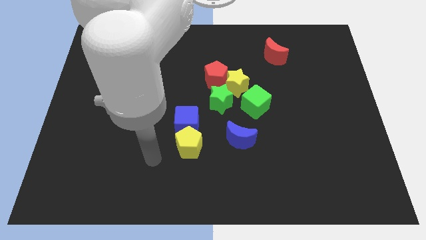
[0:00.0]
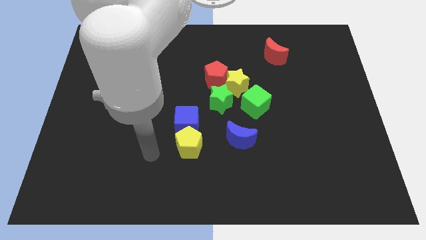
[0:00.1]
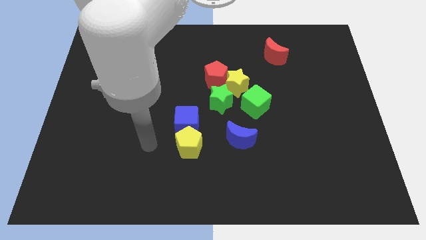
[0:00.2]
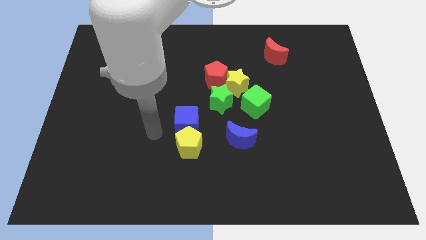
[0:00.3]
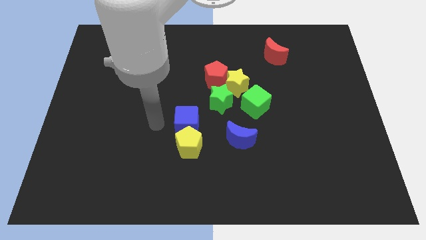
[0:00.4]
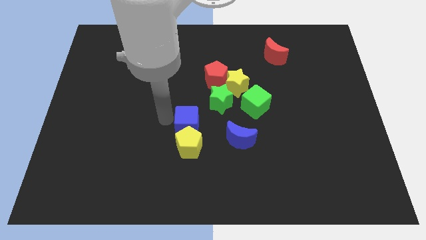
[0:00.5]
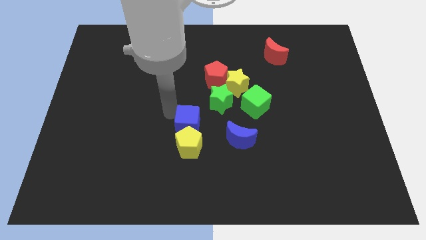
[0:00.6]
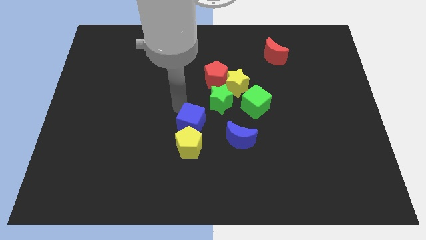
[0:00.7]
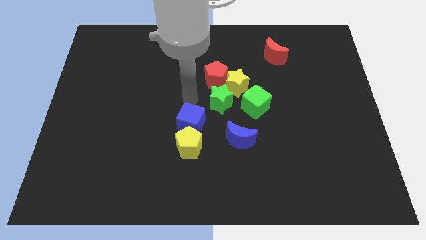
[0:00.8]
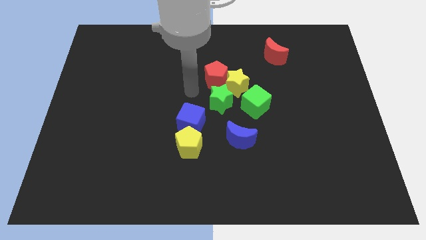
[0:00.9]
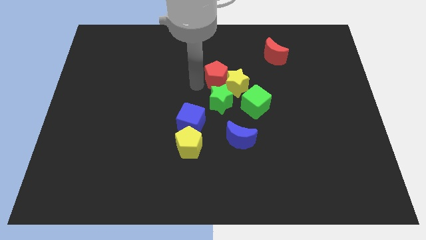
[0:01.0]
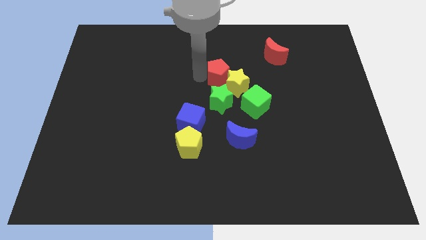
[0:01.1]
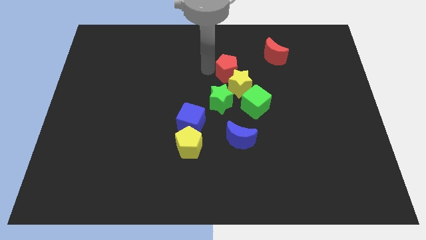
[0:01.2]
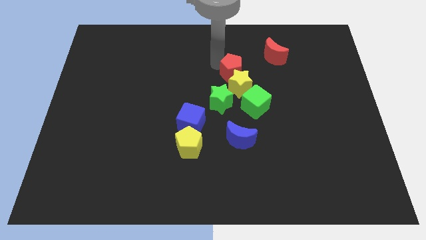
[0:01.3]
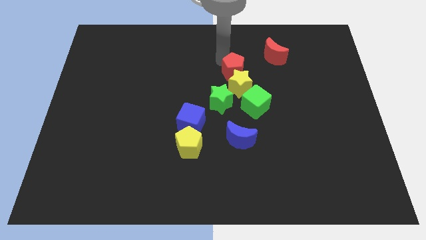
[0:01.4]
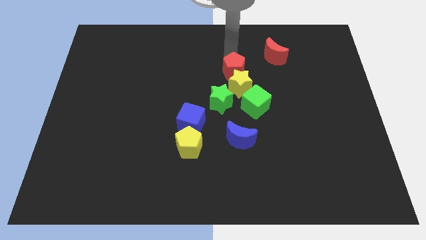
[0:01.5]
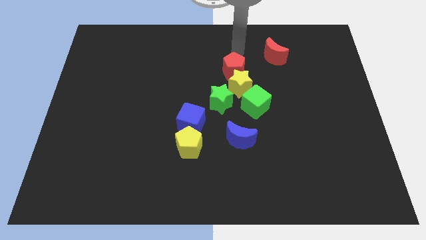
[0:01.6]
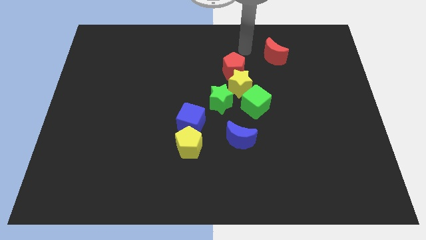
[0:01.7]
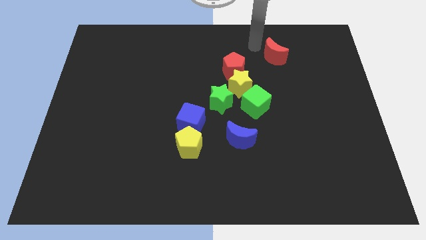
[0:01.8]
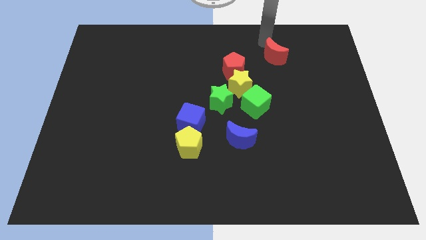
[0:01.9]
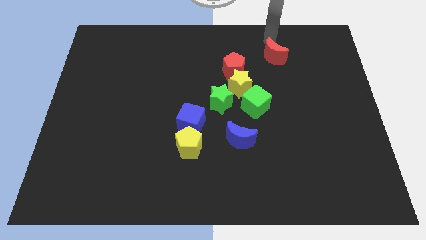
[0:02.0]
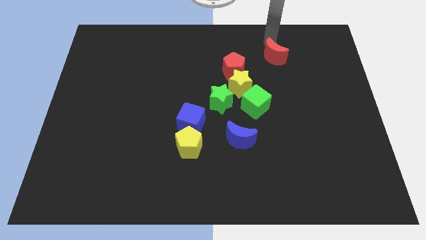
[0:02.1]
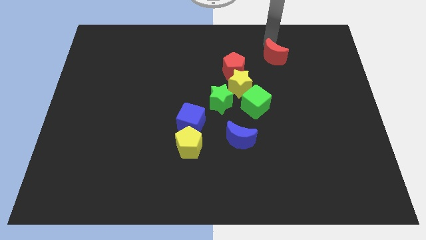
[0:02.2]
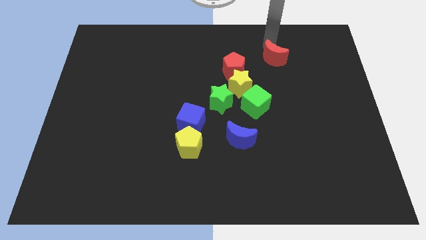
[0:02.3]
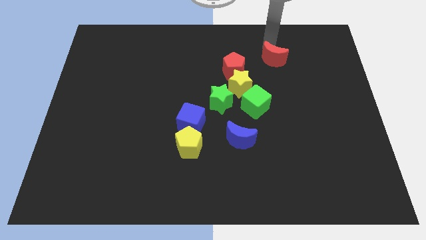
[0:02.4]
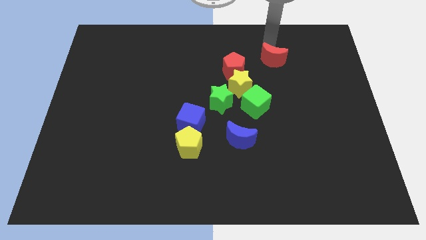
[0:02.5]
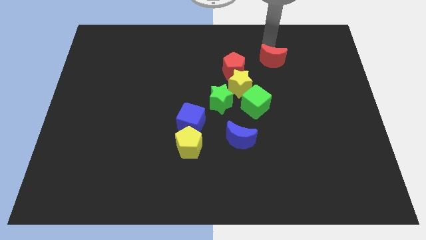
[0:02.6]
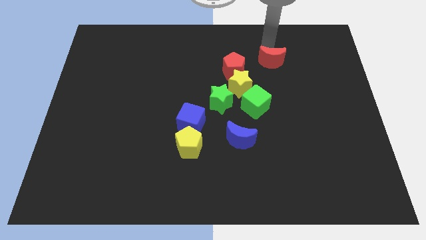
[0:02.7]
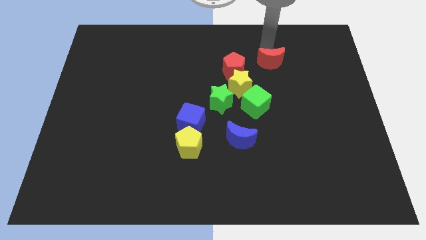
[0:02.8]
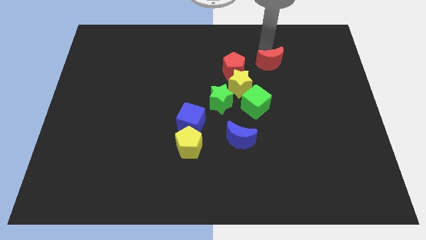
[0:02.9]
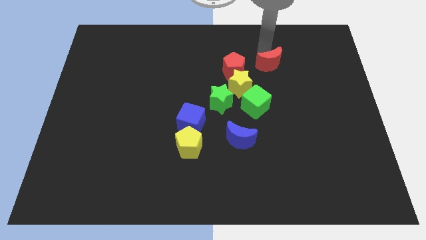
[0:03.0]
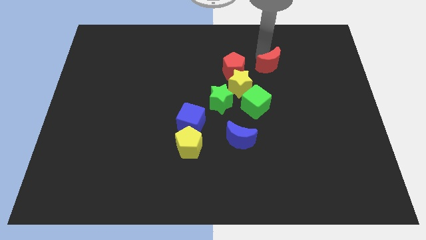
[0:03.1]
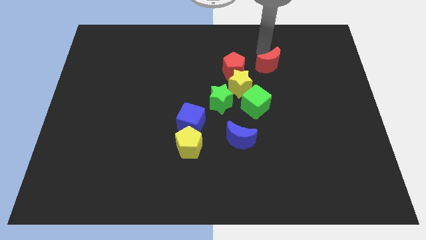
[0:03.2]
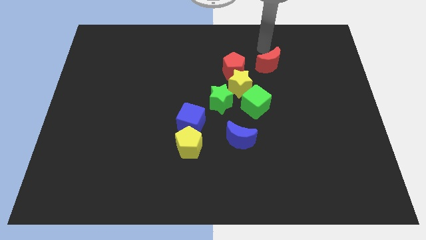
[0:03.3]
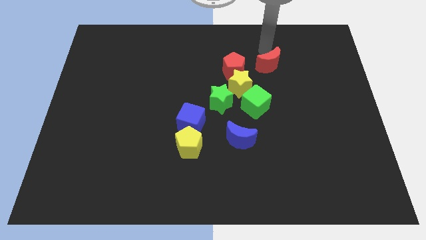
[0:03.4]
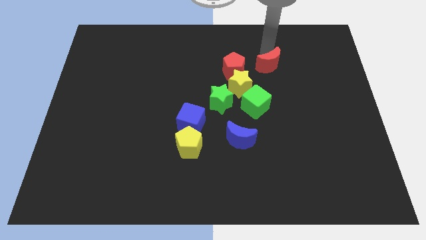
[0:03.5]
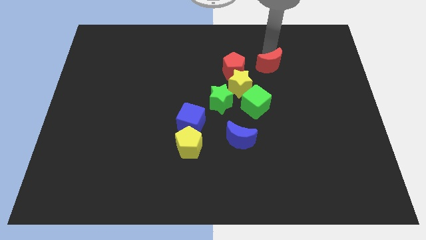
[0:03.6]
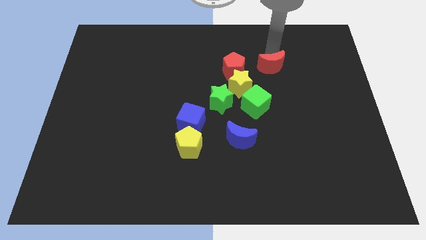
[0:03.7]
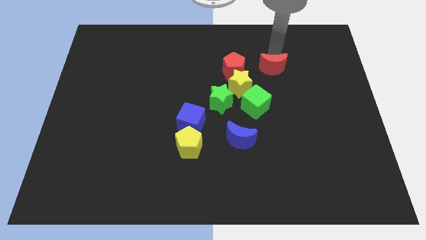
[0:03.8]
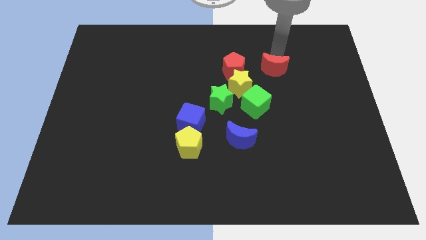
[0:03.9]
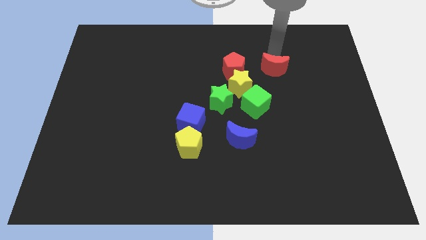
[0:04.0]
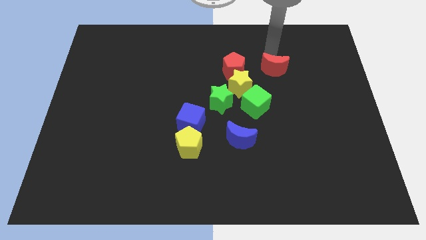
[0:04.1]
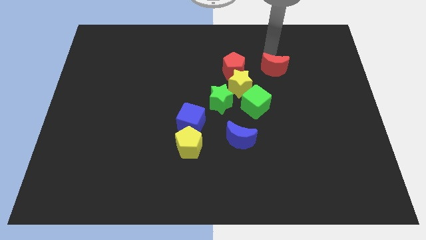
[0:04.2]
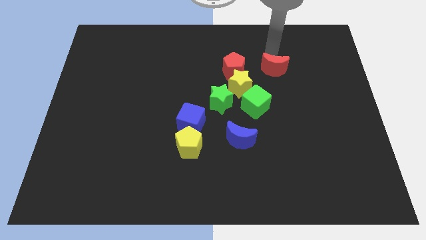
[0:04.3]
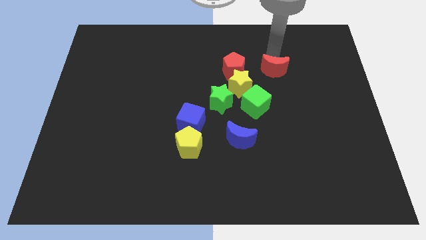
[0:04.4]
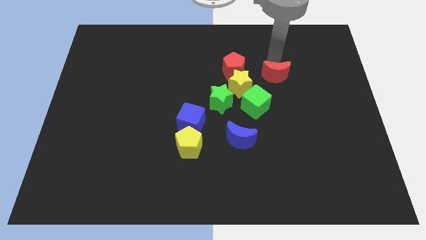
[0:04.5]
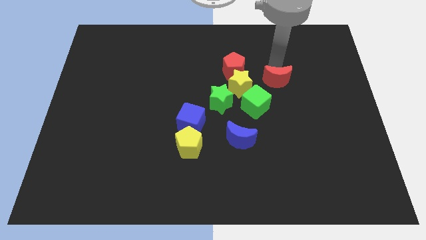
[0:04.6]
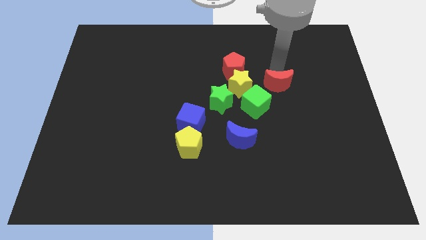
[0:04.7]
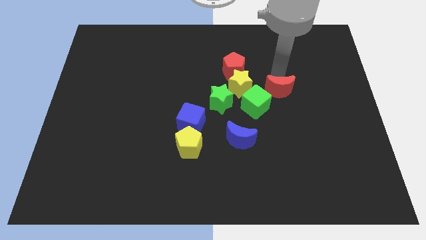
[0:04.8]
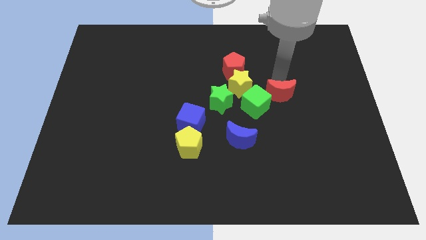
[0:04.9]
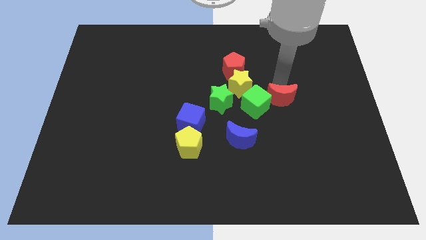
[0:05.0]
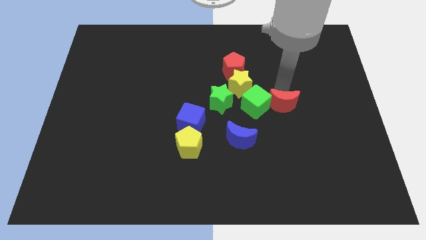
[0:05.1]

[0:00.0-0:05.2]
slide the red moon to the bottom right side of the green cube

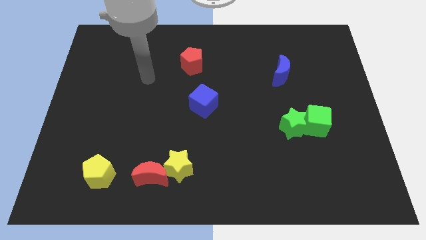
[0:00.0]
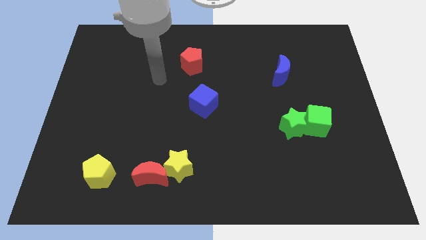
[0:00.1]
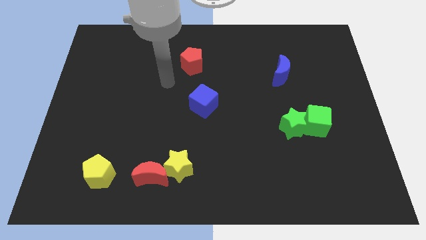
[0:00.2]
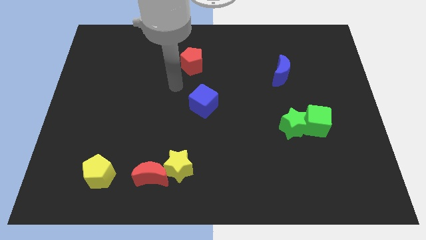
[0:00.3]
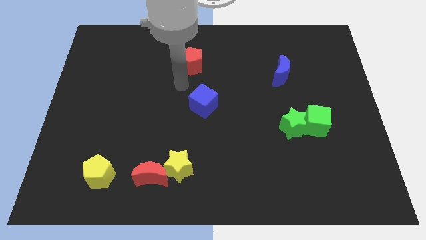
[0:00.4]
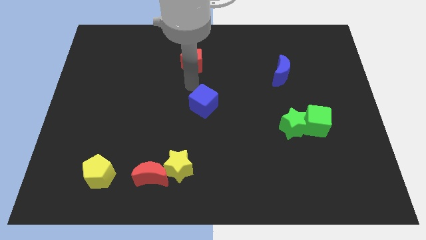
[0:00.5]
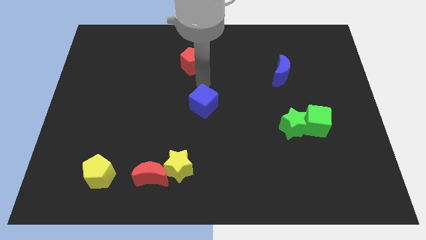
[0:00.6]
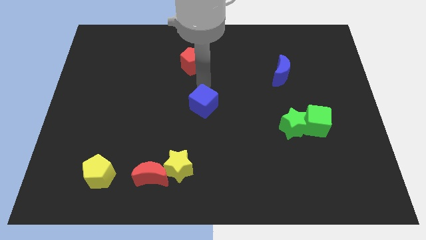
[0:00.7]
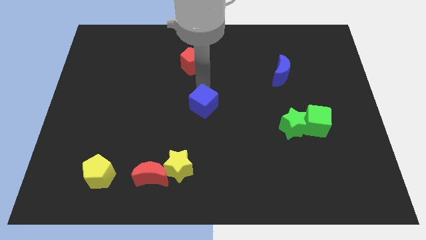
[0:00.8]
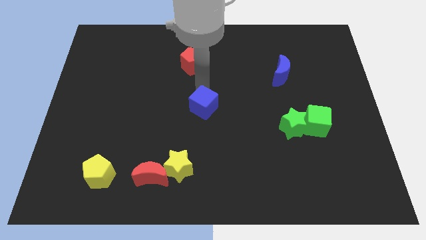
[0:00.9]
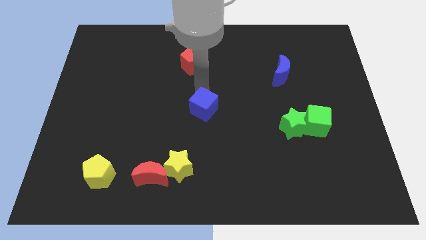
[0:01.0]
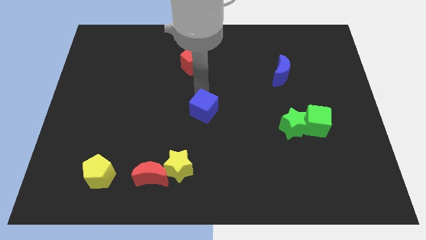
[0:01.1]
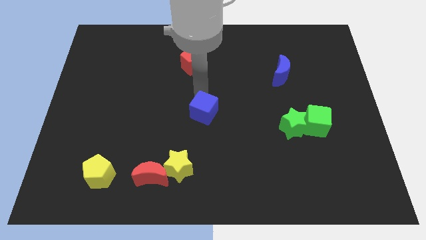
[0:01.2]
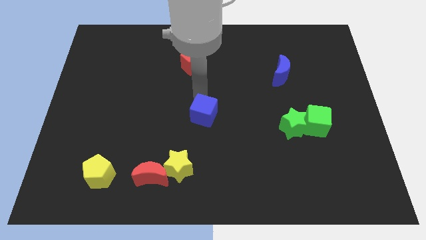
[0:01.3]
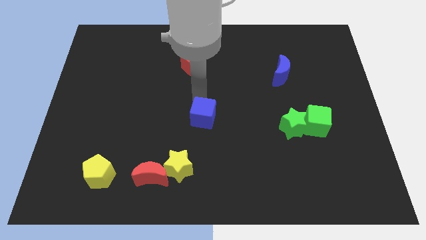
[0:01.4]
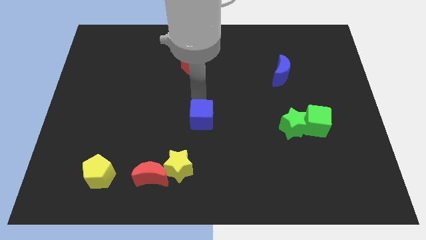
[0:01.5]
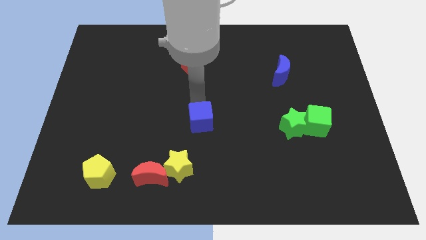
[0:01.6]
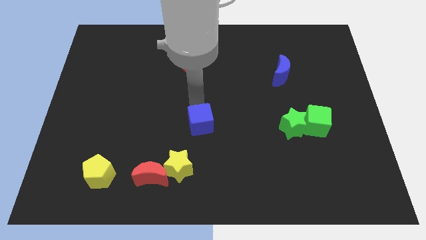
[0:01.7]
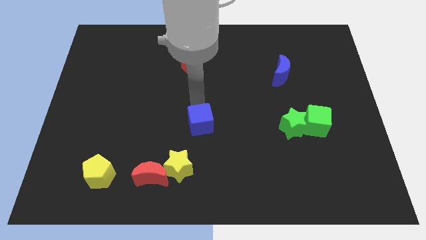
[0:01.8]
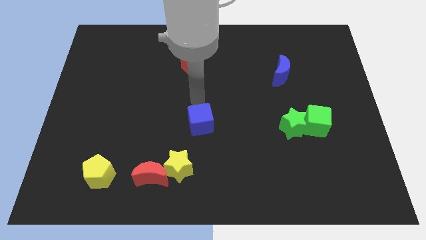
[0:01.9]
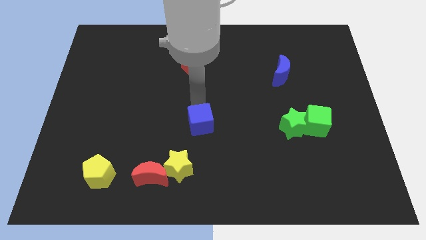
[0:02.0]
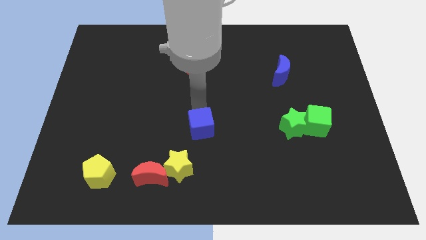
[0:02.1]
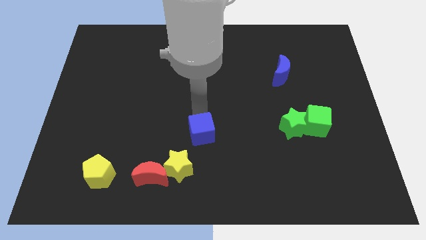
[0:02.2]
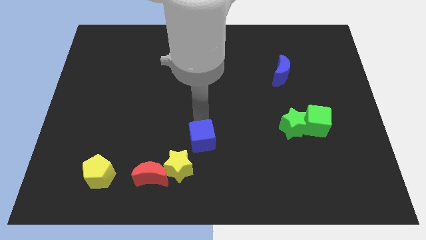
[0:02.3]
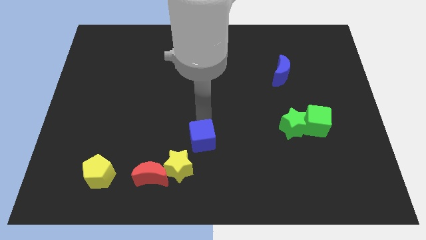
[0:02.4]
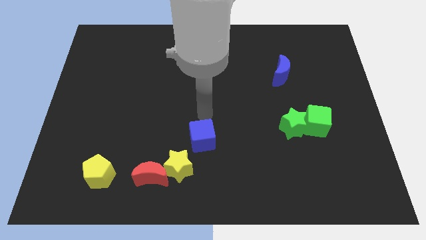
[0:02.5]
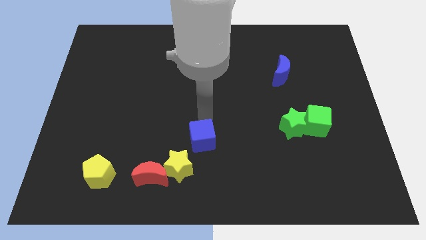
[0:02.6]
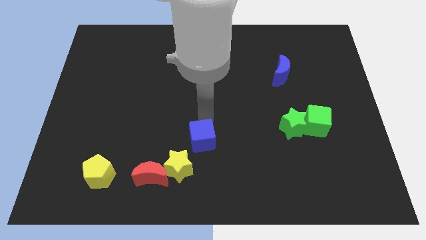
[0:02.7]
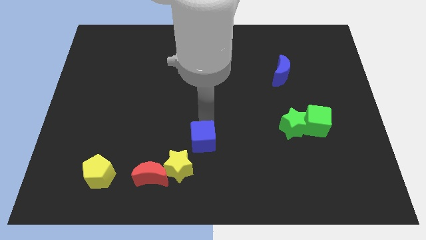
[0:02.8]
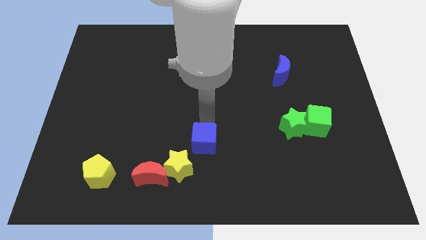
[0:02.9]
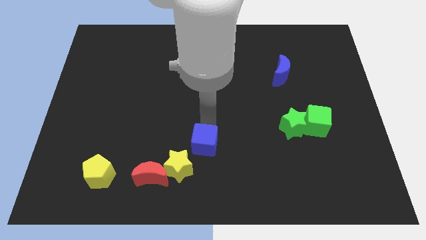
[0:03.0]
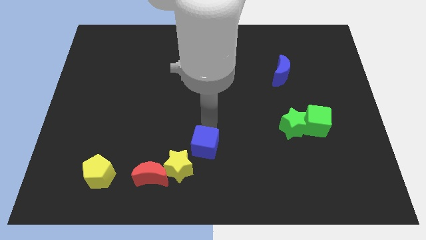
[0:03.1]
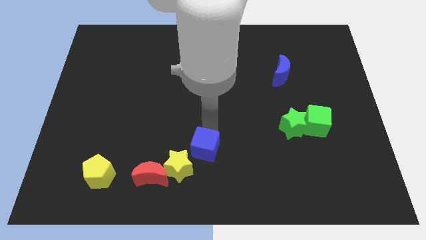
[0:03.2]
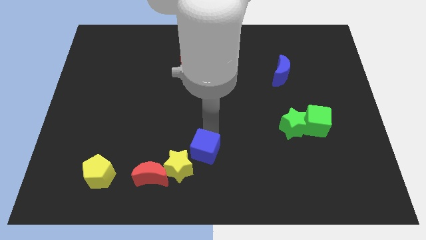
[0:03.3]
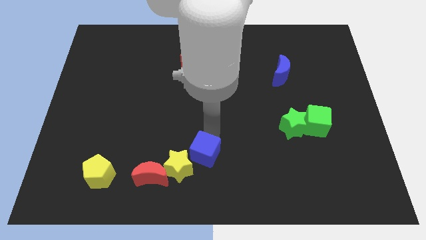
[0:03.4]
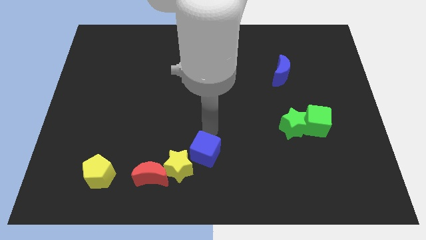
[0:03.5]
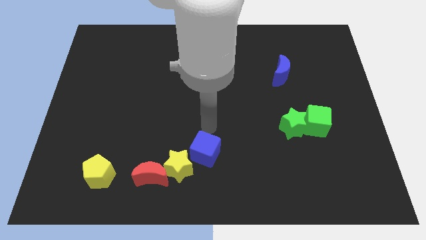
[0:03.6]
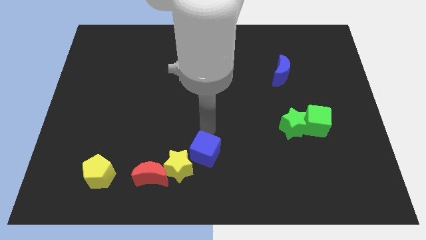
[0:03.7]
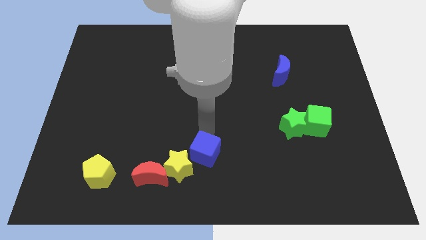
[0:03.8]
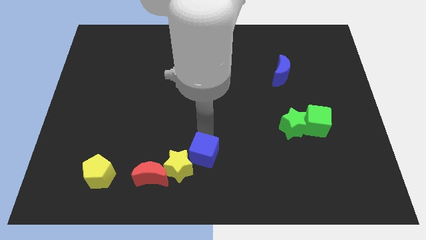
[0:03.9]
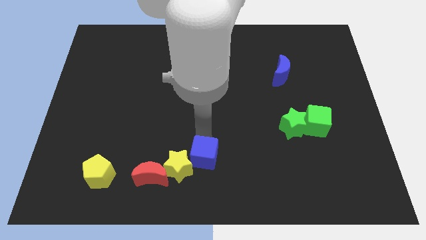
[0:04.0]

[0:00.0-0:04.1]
push the blue cube right of the red moon
